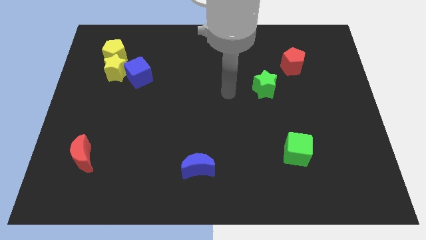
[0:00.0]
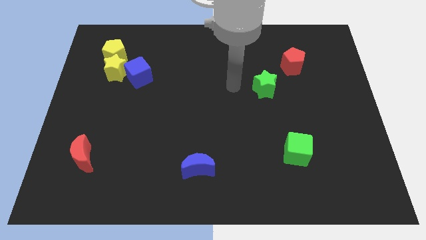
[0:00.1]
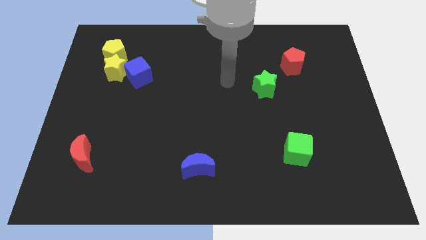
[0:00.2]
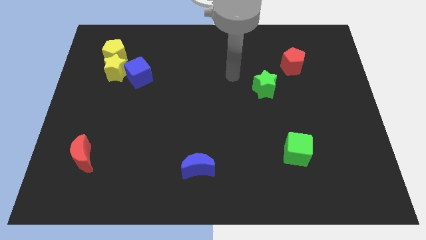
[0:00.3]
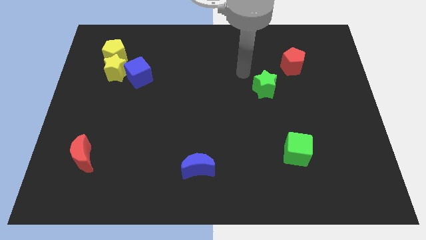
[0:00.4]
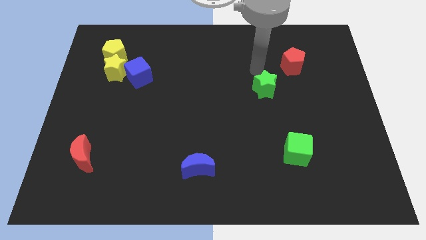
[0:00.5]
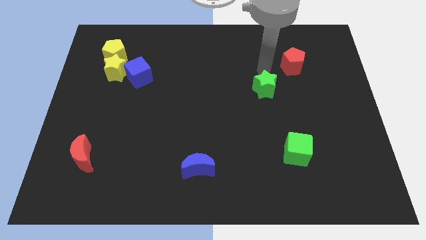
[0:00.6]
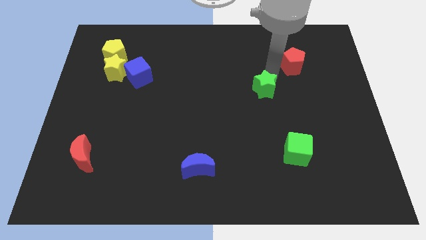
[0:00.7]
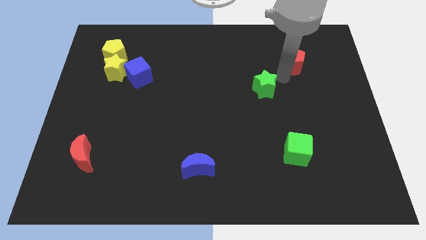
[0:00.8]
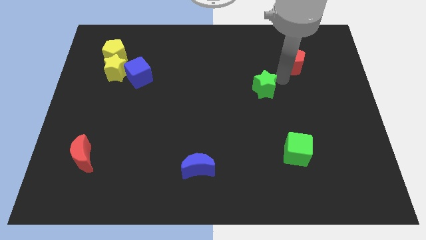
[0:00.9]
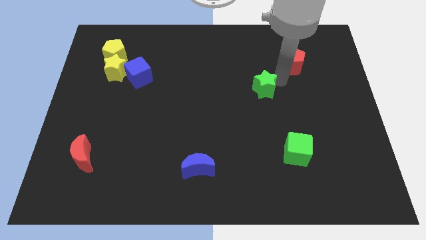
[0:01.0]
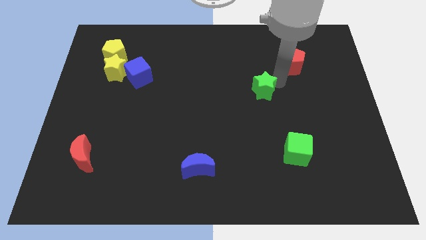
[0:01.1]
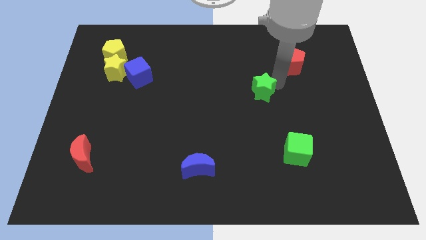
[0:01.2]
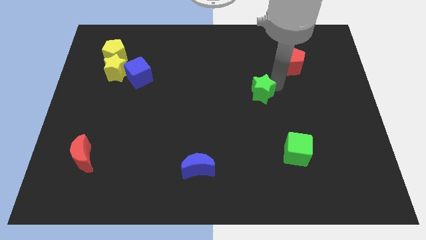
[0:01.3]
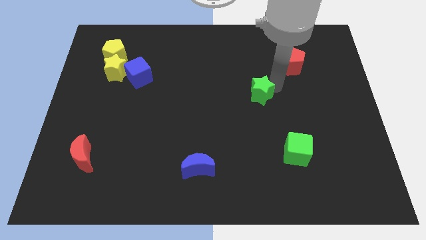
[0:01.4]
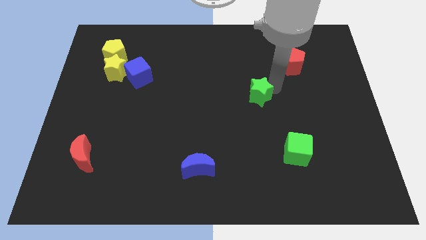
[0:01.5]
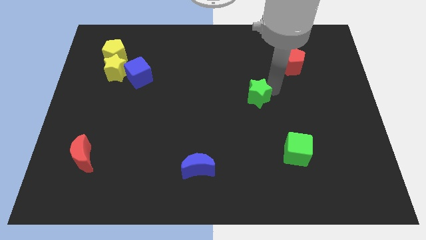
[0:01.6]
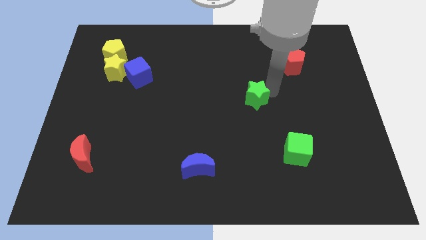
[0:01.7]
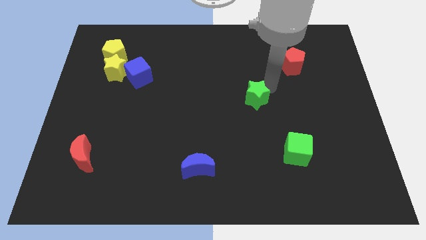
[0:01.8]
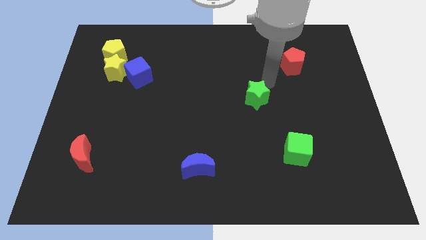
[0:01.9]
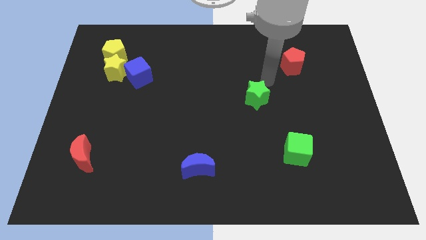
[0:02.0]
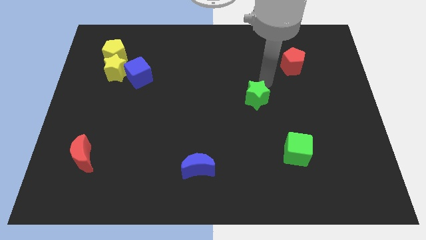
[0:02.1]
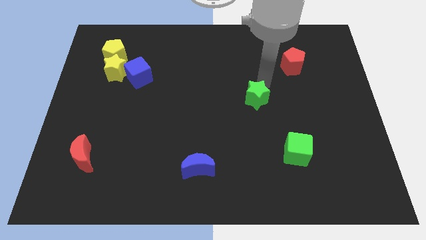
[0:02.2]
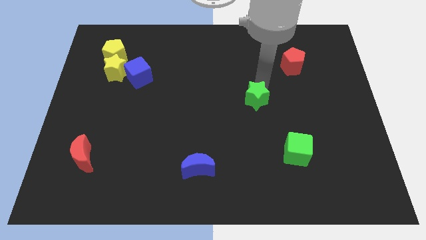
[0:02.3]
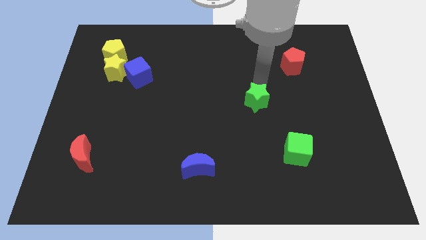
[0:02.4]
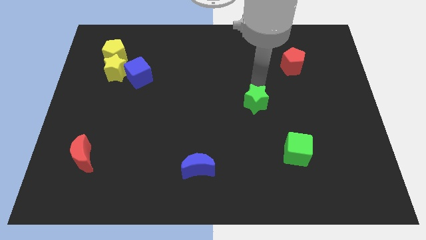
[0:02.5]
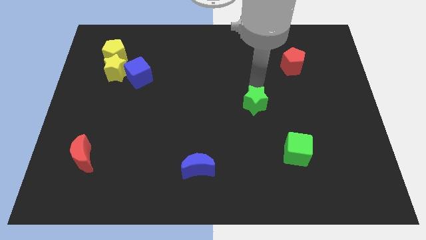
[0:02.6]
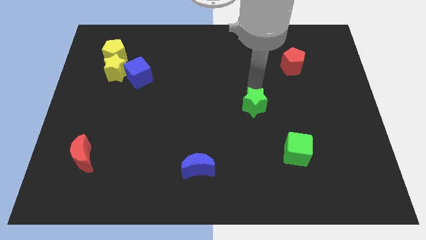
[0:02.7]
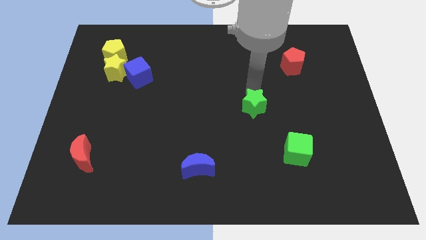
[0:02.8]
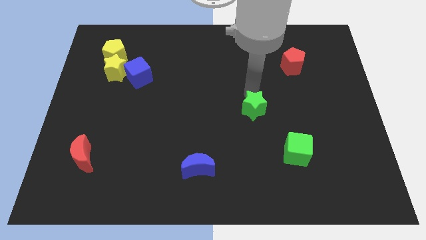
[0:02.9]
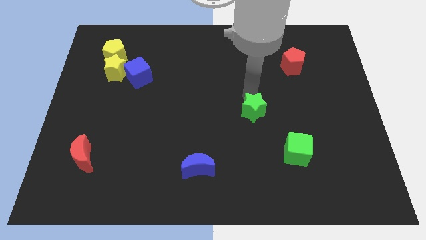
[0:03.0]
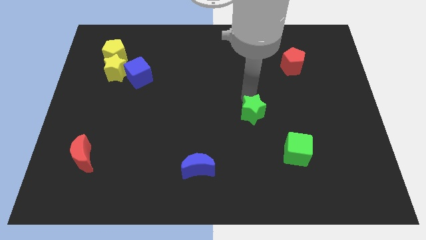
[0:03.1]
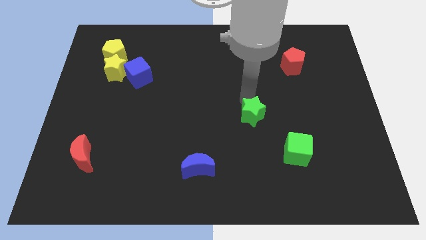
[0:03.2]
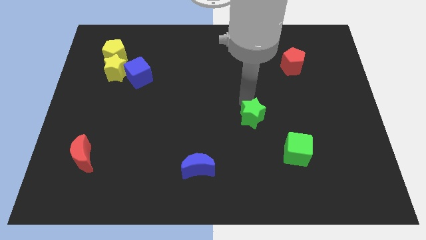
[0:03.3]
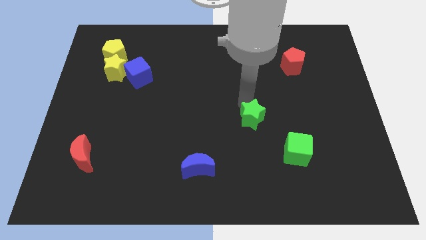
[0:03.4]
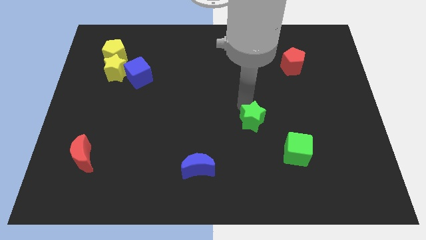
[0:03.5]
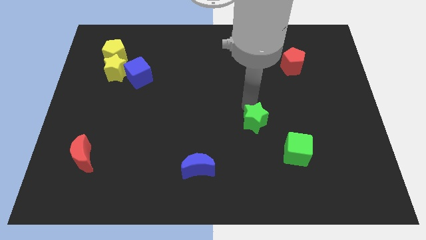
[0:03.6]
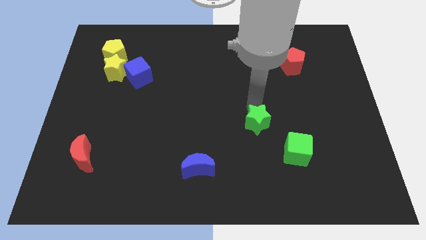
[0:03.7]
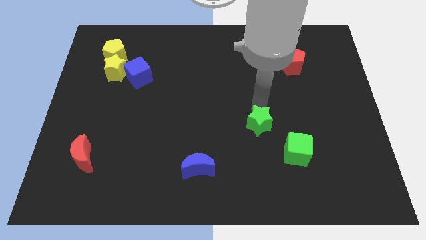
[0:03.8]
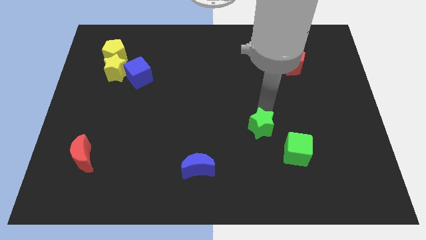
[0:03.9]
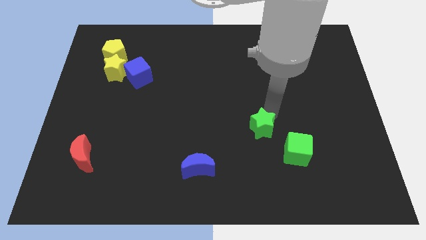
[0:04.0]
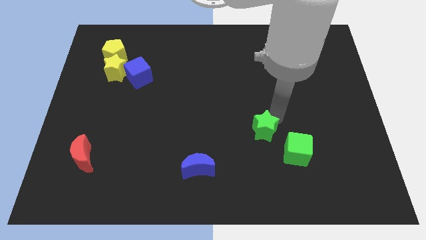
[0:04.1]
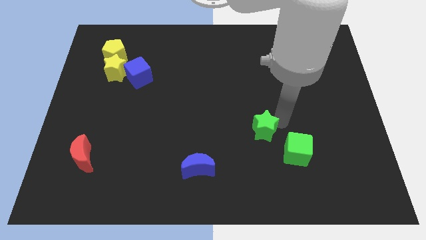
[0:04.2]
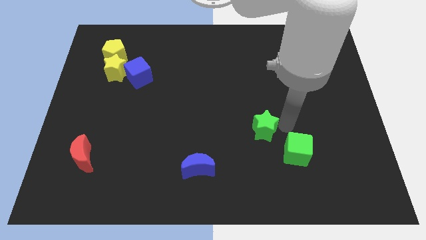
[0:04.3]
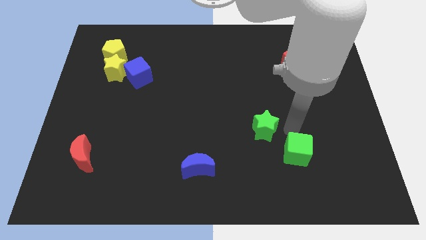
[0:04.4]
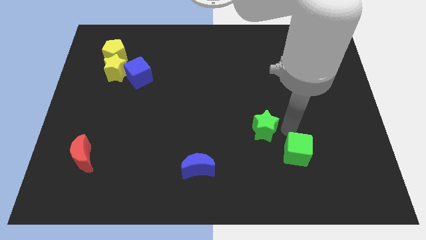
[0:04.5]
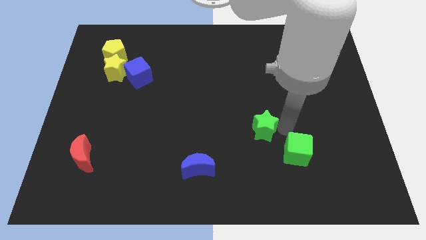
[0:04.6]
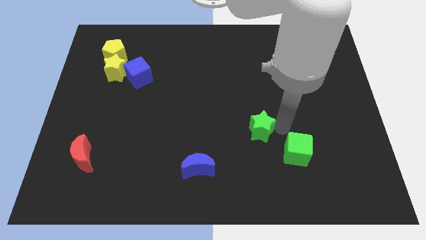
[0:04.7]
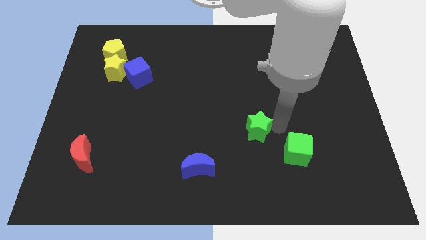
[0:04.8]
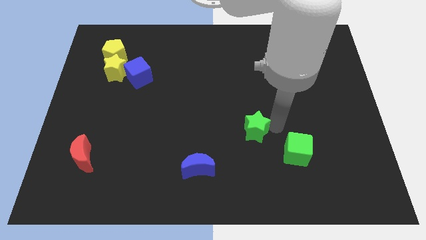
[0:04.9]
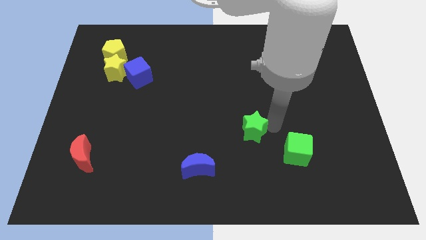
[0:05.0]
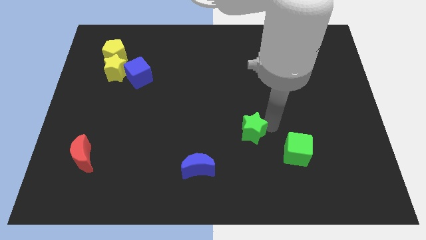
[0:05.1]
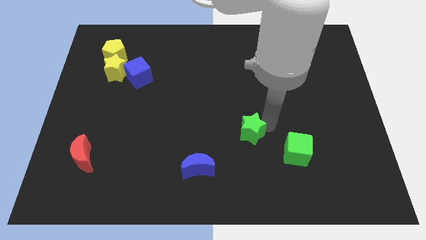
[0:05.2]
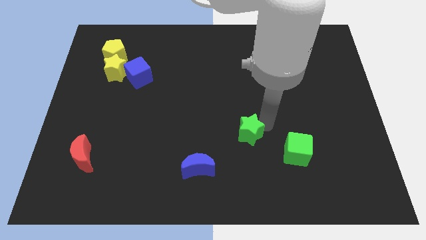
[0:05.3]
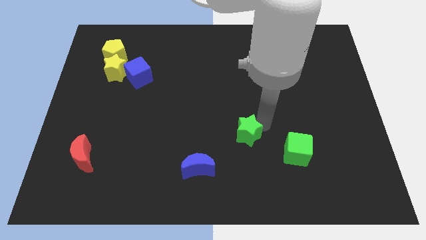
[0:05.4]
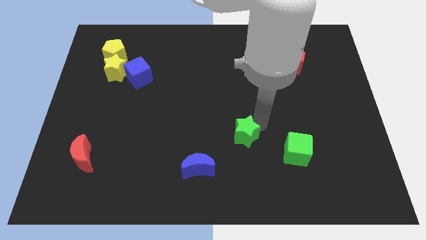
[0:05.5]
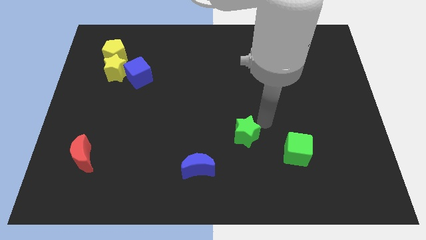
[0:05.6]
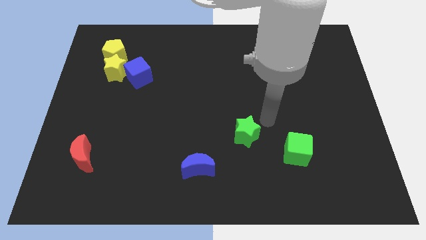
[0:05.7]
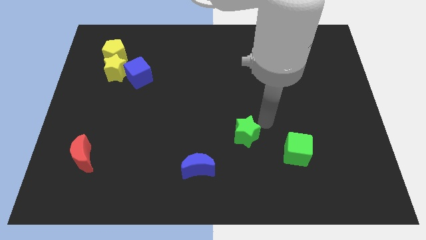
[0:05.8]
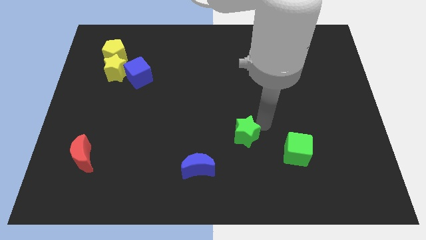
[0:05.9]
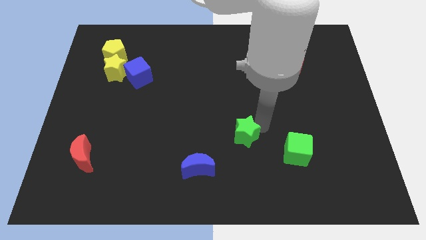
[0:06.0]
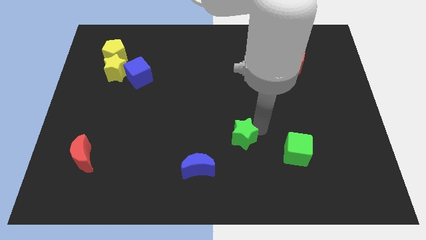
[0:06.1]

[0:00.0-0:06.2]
put the green star to the top right side of the blue moon

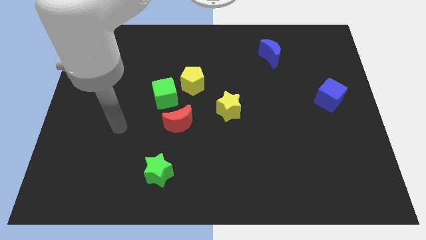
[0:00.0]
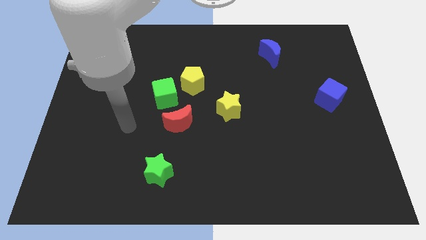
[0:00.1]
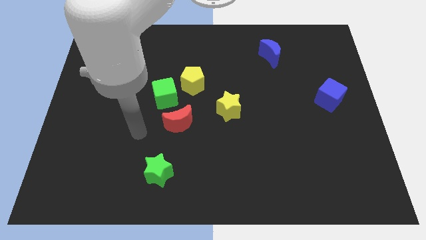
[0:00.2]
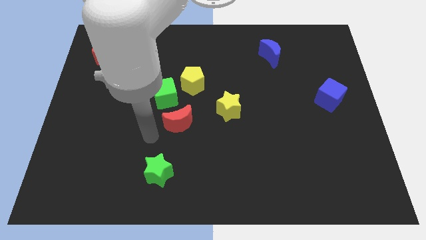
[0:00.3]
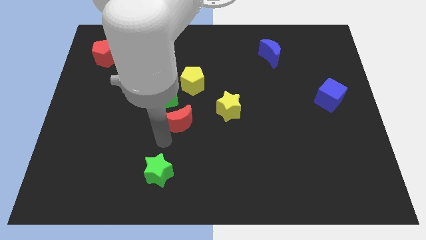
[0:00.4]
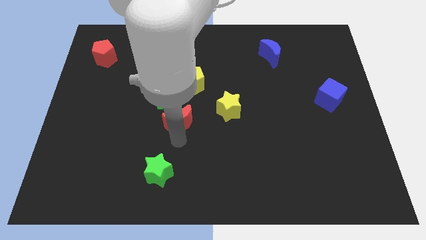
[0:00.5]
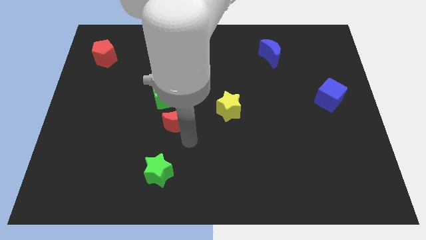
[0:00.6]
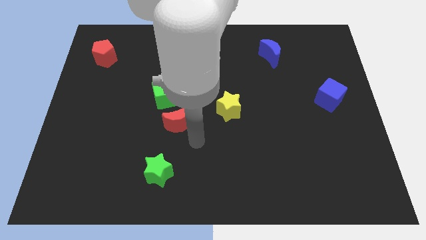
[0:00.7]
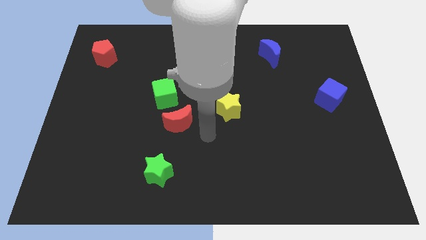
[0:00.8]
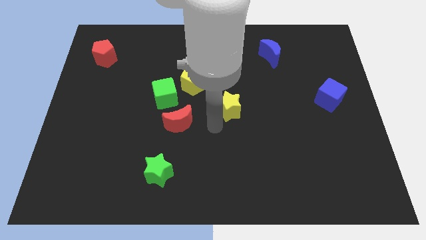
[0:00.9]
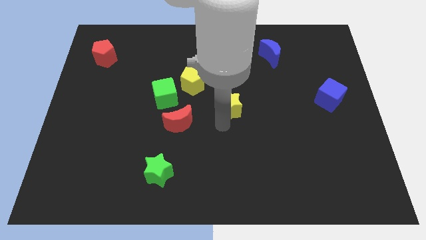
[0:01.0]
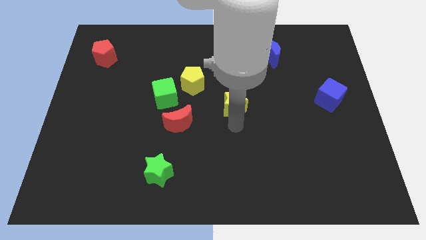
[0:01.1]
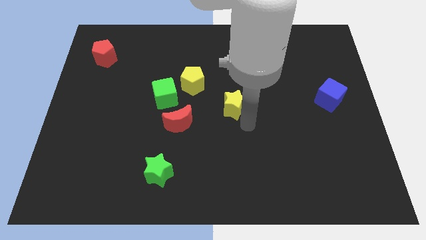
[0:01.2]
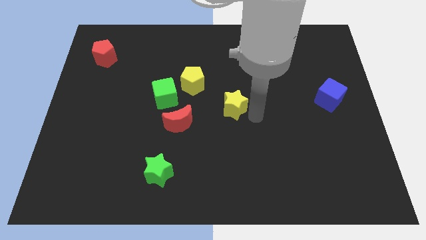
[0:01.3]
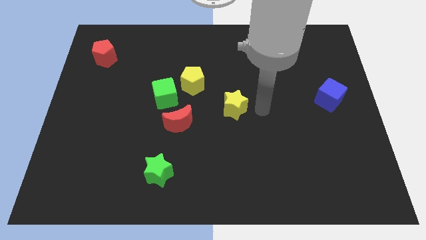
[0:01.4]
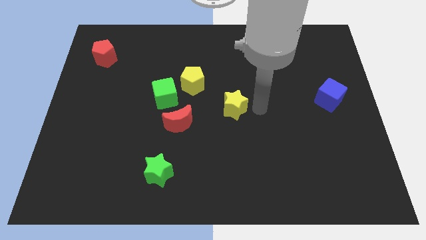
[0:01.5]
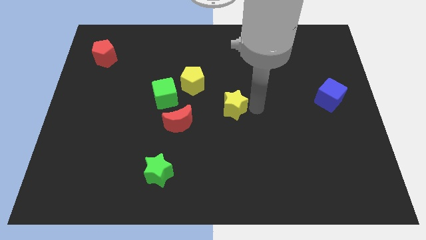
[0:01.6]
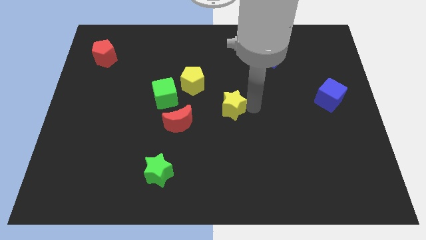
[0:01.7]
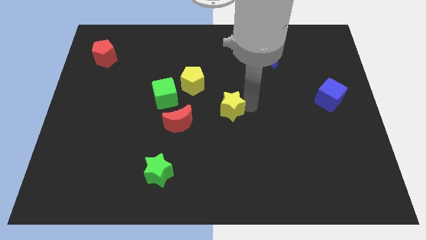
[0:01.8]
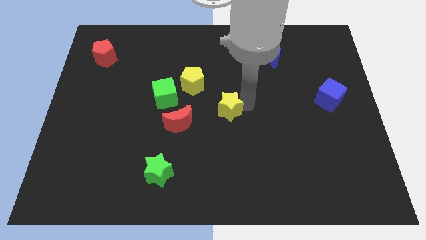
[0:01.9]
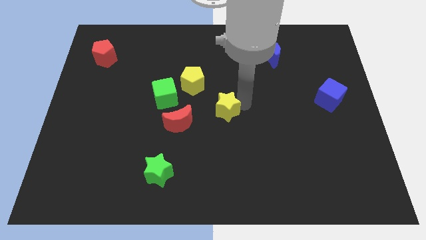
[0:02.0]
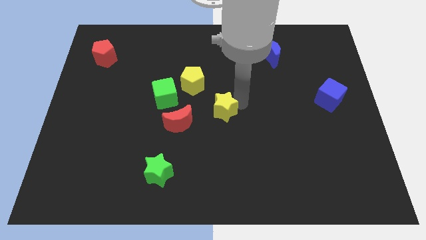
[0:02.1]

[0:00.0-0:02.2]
put the yellow star to the top right side of the red moon
